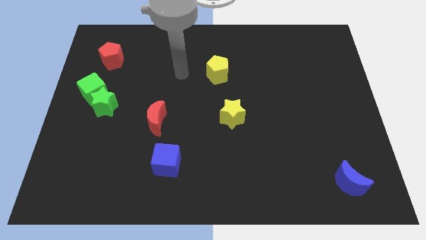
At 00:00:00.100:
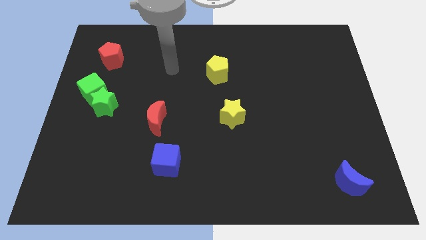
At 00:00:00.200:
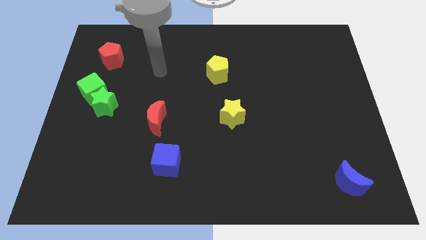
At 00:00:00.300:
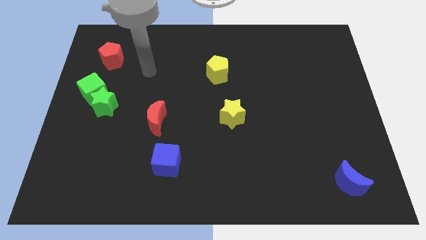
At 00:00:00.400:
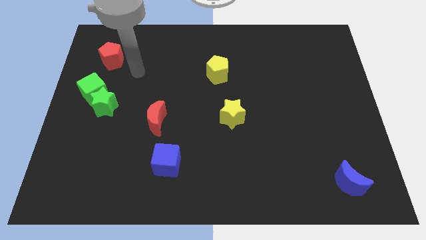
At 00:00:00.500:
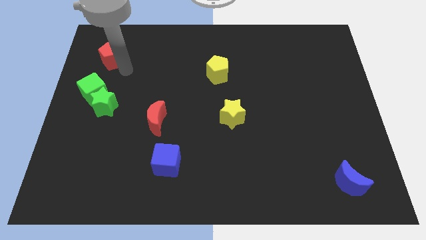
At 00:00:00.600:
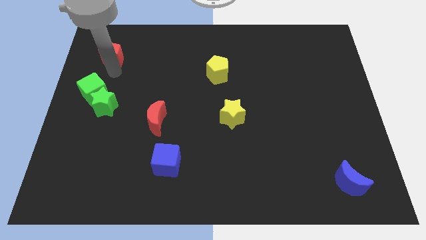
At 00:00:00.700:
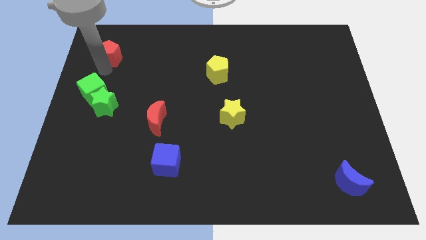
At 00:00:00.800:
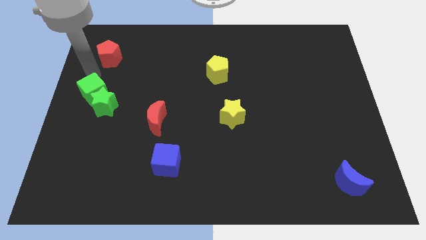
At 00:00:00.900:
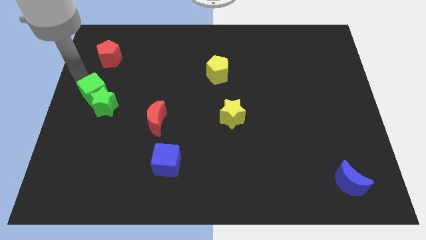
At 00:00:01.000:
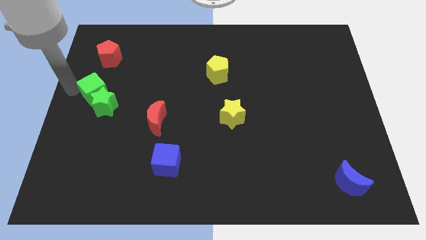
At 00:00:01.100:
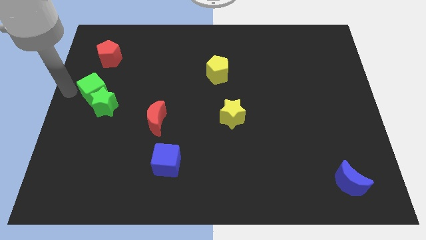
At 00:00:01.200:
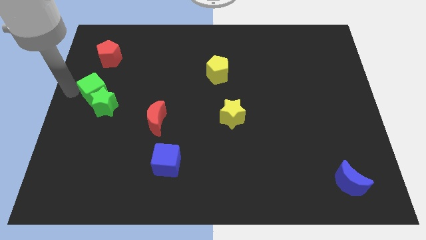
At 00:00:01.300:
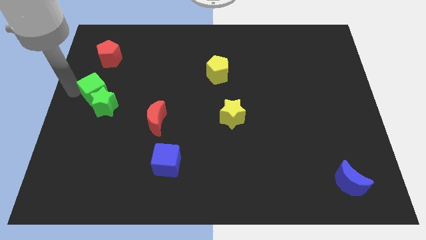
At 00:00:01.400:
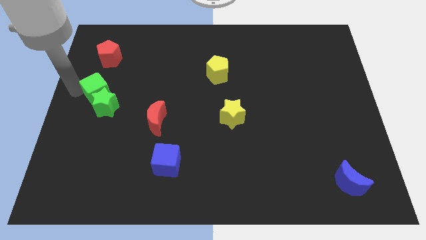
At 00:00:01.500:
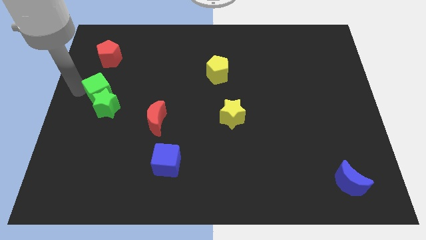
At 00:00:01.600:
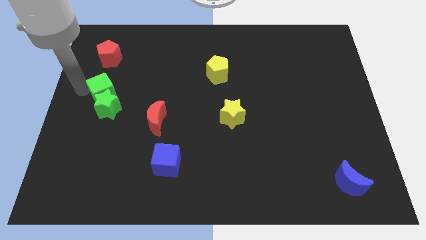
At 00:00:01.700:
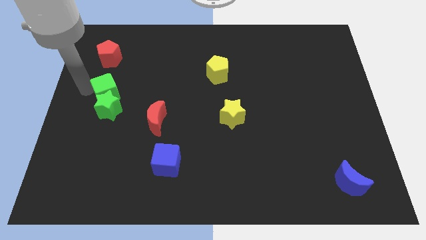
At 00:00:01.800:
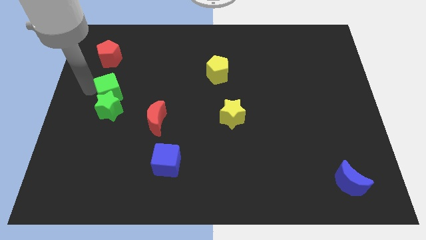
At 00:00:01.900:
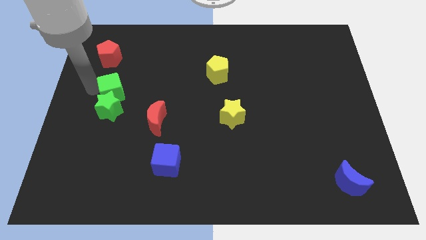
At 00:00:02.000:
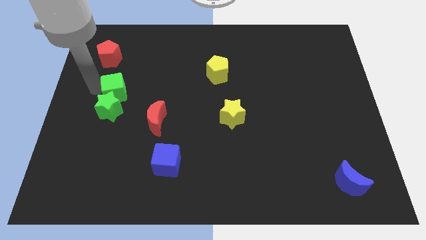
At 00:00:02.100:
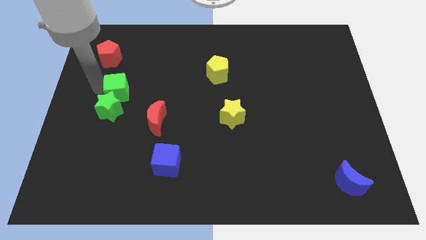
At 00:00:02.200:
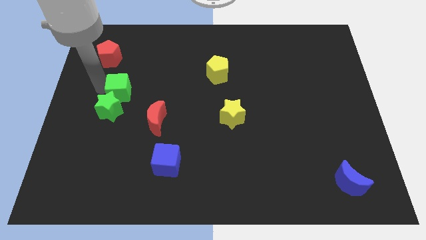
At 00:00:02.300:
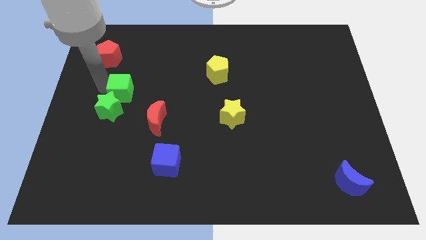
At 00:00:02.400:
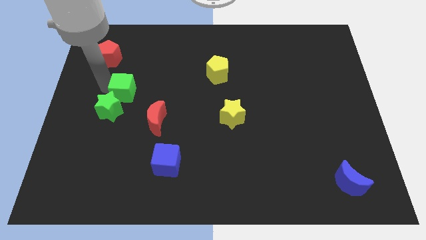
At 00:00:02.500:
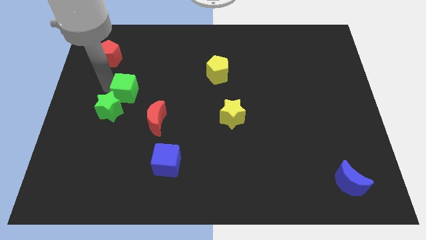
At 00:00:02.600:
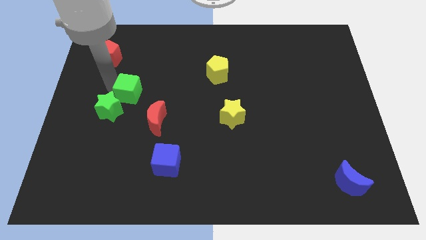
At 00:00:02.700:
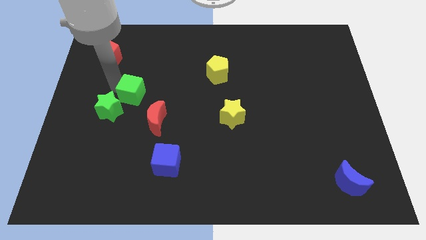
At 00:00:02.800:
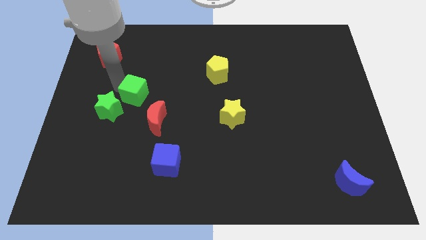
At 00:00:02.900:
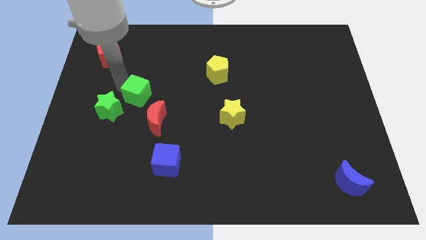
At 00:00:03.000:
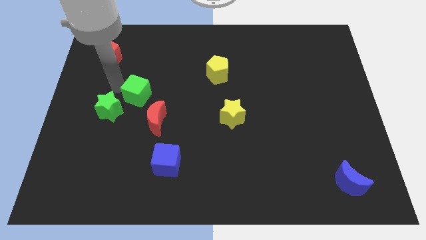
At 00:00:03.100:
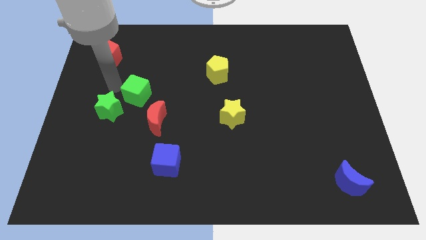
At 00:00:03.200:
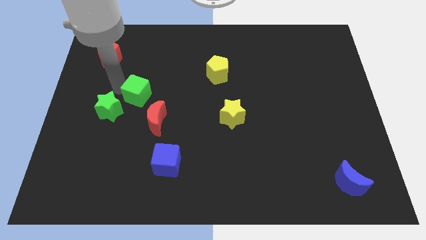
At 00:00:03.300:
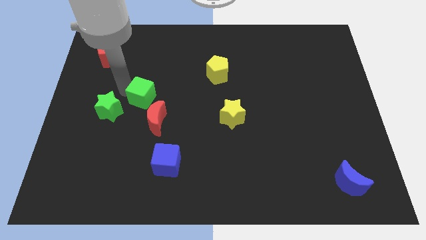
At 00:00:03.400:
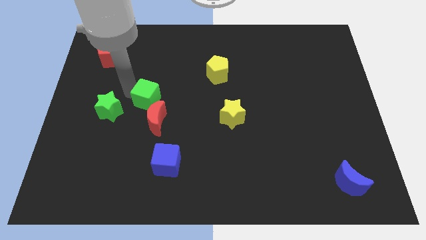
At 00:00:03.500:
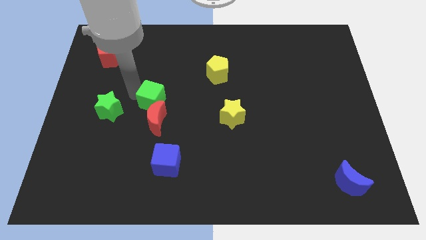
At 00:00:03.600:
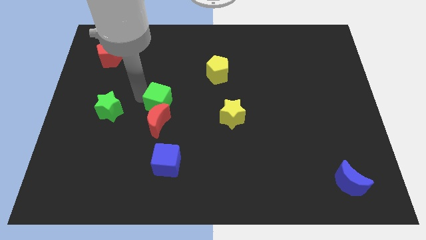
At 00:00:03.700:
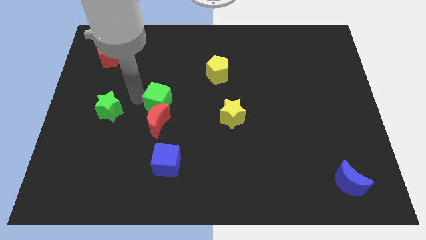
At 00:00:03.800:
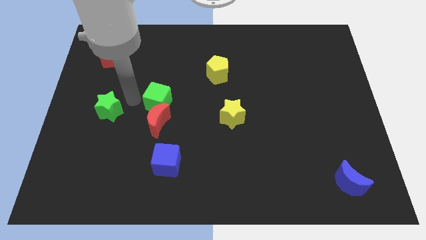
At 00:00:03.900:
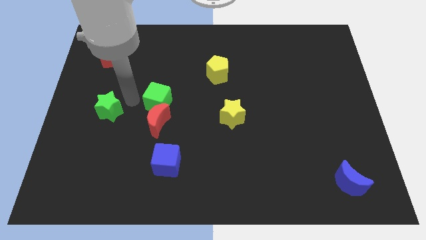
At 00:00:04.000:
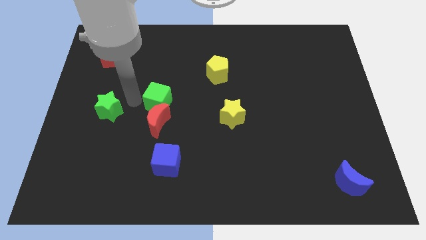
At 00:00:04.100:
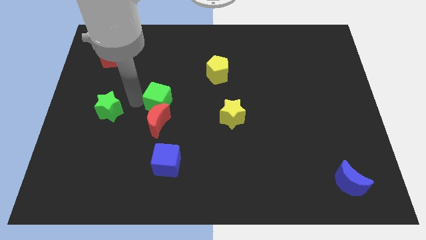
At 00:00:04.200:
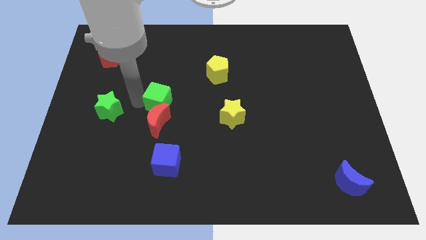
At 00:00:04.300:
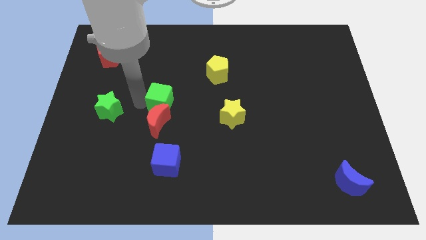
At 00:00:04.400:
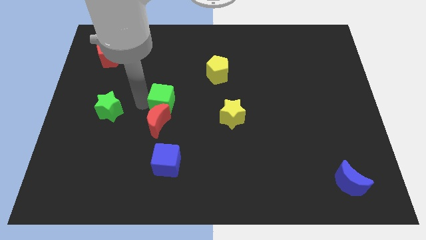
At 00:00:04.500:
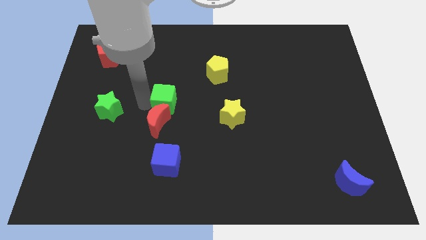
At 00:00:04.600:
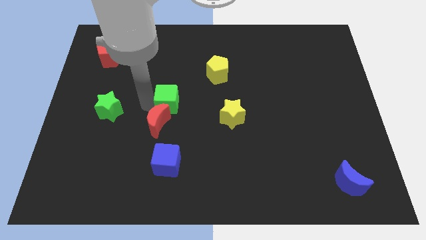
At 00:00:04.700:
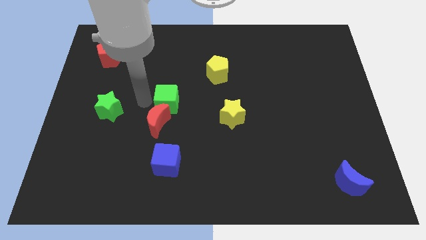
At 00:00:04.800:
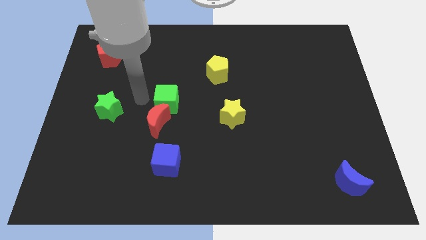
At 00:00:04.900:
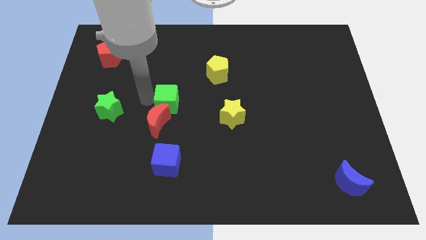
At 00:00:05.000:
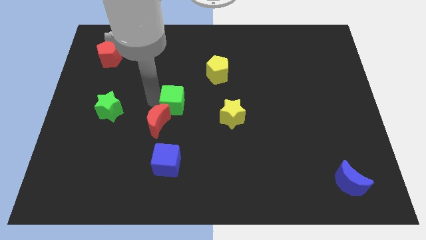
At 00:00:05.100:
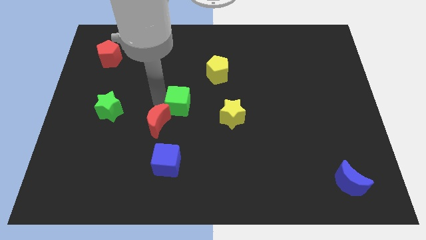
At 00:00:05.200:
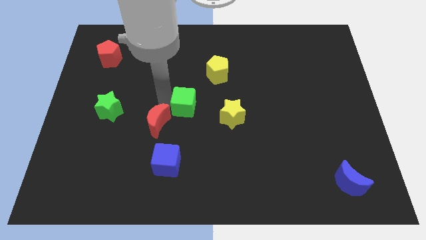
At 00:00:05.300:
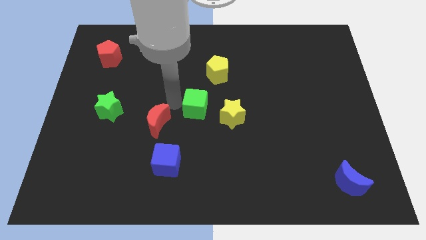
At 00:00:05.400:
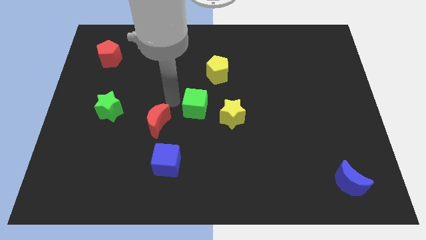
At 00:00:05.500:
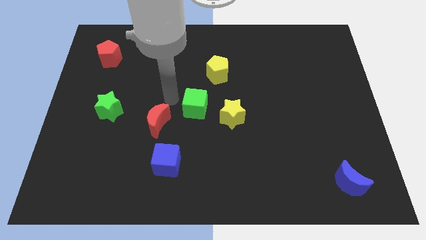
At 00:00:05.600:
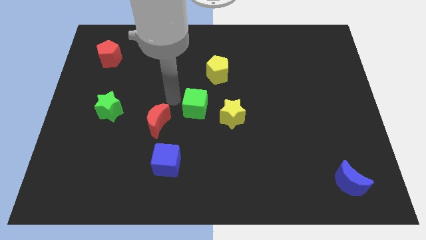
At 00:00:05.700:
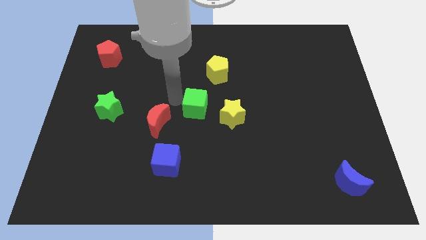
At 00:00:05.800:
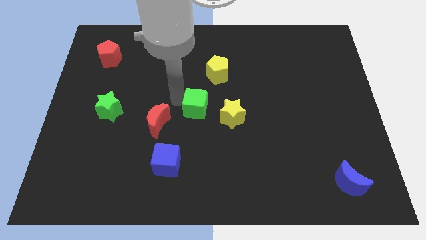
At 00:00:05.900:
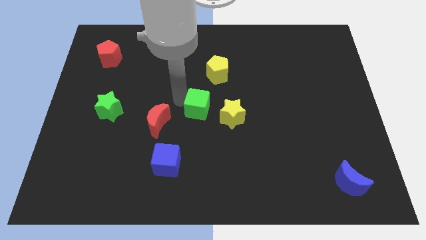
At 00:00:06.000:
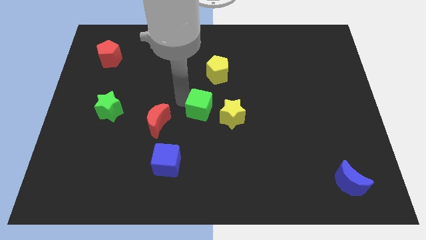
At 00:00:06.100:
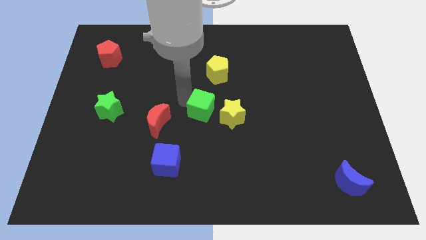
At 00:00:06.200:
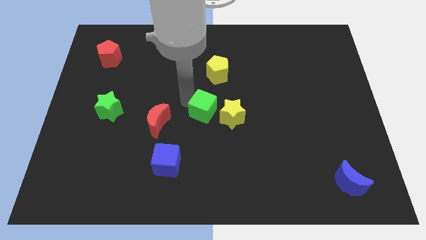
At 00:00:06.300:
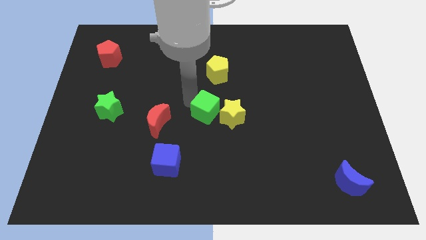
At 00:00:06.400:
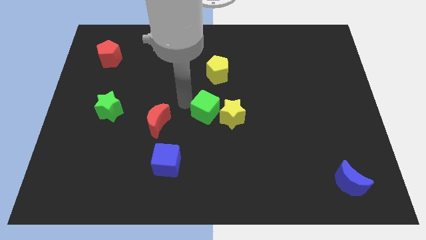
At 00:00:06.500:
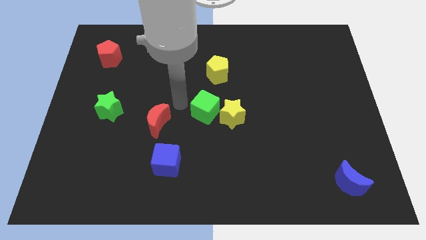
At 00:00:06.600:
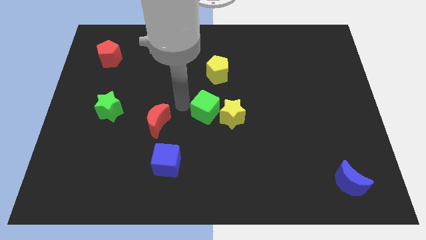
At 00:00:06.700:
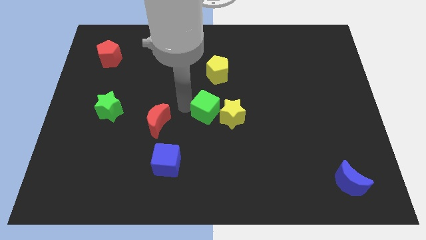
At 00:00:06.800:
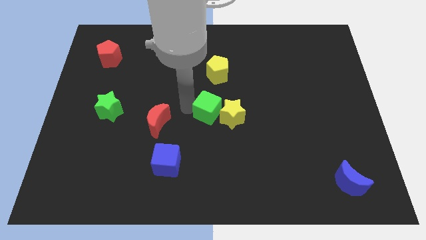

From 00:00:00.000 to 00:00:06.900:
slide the green cube to the yellow star
